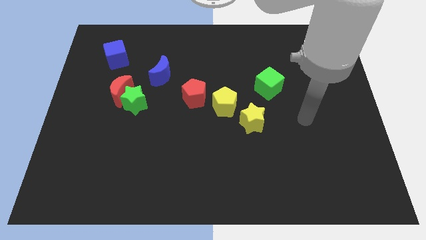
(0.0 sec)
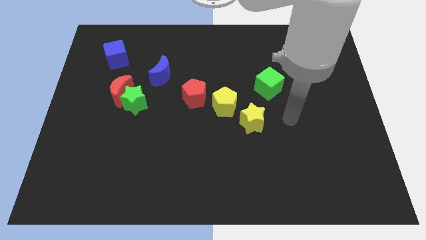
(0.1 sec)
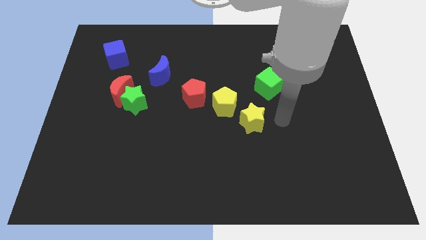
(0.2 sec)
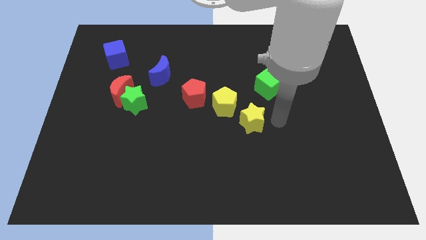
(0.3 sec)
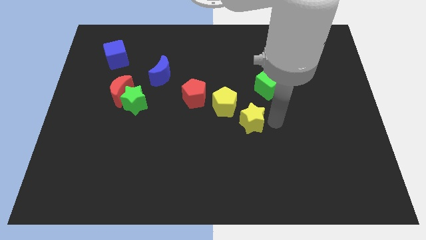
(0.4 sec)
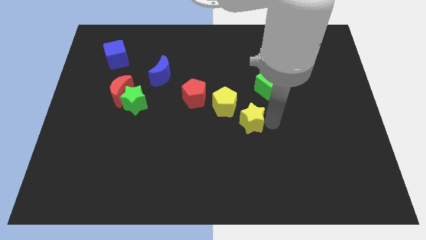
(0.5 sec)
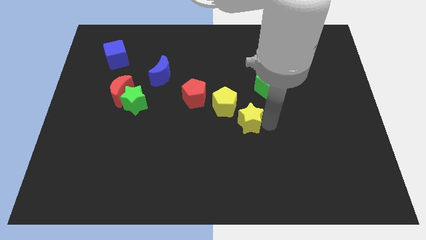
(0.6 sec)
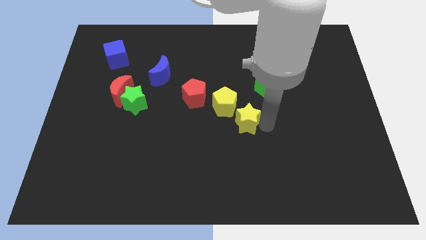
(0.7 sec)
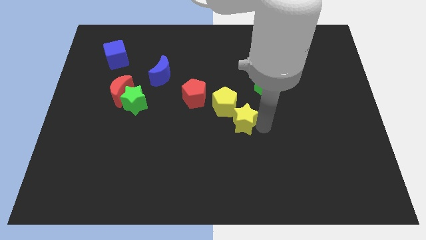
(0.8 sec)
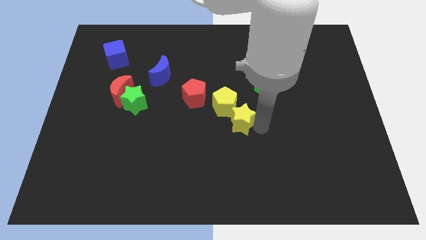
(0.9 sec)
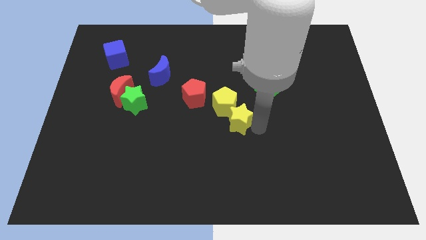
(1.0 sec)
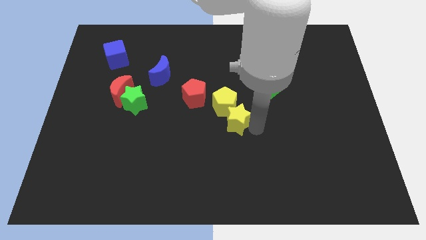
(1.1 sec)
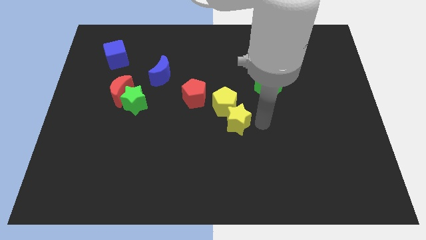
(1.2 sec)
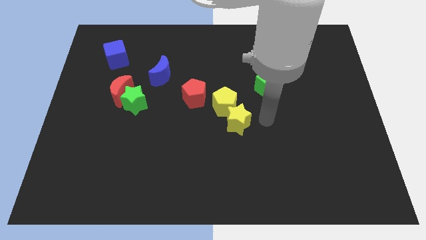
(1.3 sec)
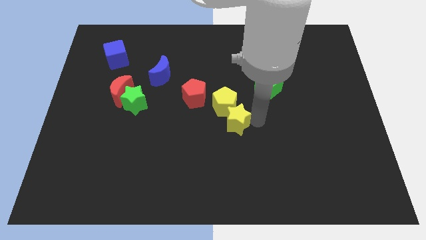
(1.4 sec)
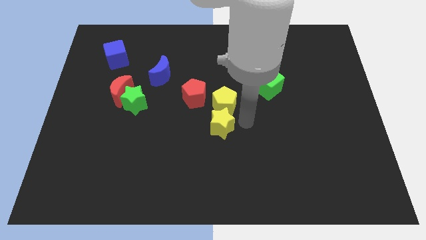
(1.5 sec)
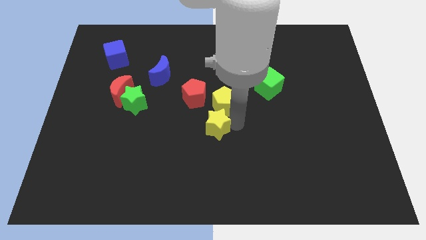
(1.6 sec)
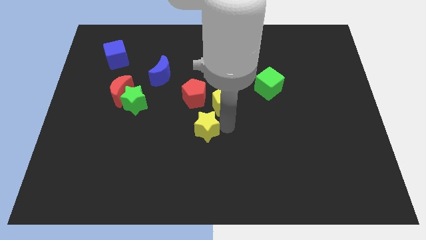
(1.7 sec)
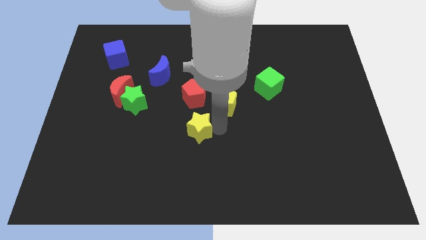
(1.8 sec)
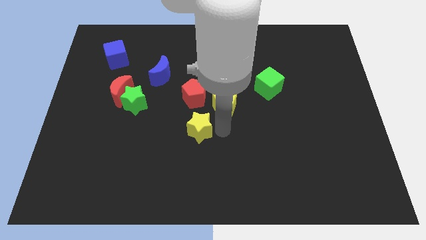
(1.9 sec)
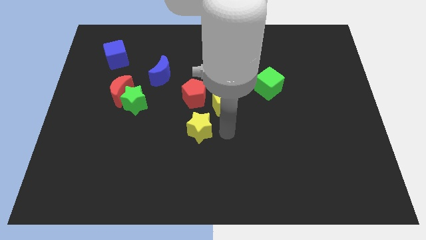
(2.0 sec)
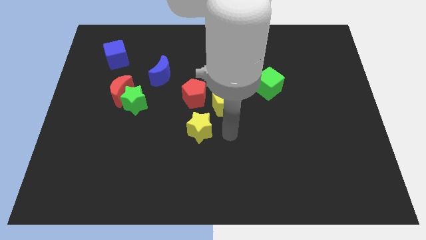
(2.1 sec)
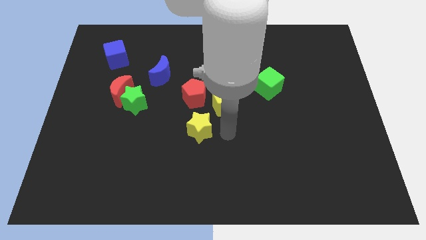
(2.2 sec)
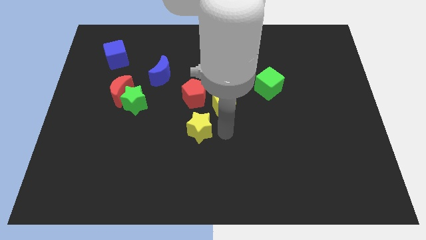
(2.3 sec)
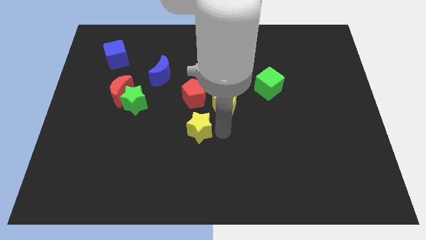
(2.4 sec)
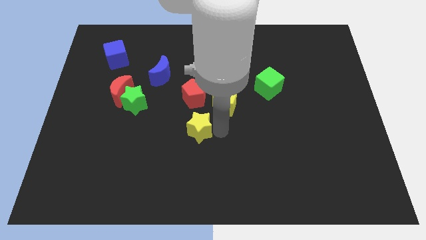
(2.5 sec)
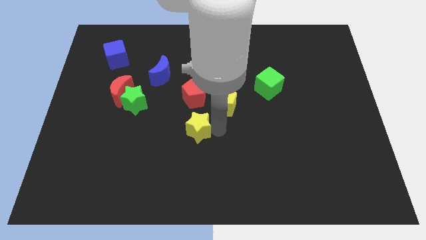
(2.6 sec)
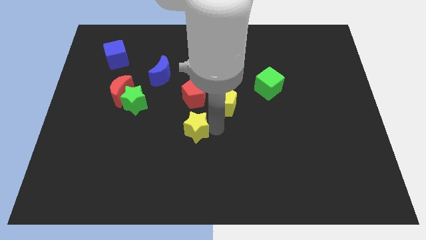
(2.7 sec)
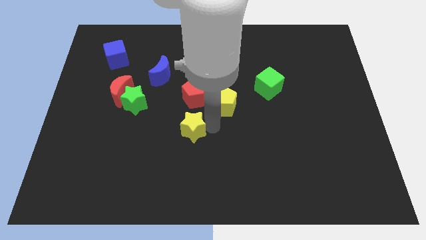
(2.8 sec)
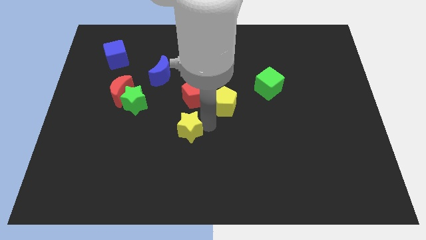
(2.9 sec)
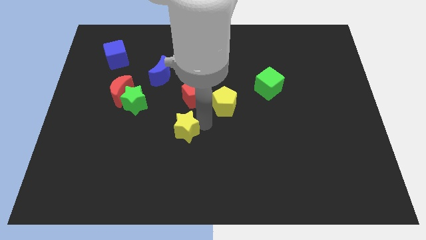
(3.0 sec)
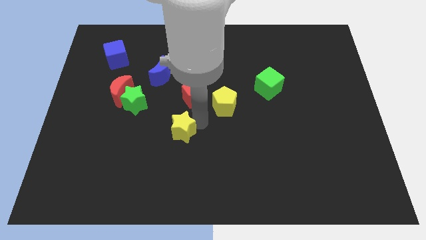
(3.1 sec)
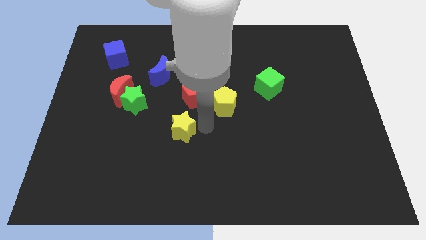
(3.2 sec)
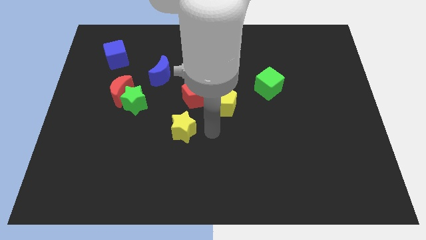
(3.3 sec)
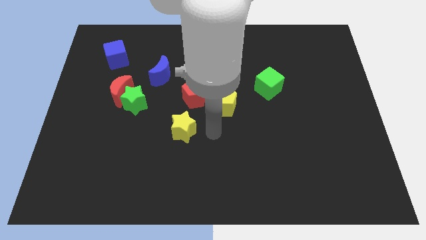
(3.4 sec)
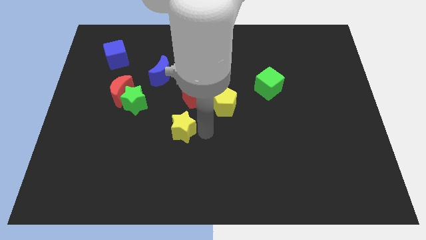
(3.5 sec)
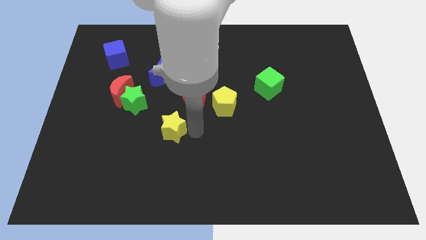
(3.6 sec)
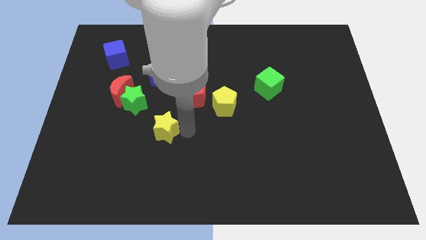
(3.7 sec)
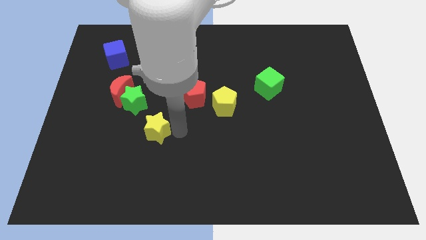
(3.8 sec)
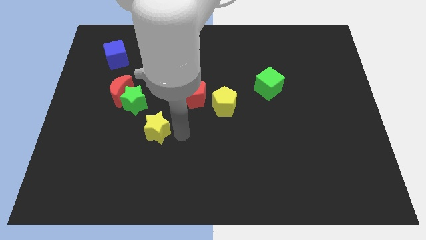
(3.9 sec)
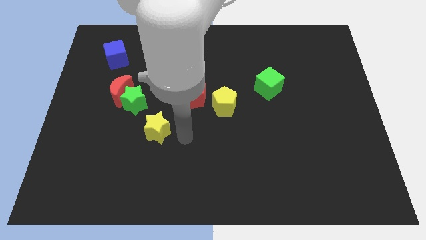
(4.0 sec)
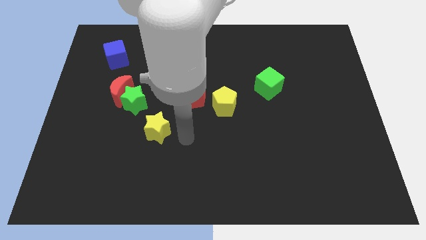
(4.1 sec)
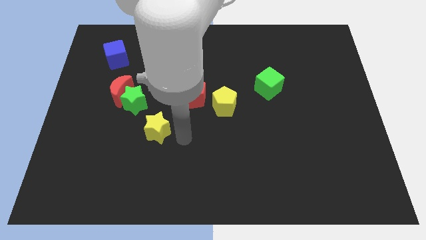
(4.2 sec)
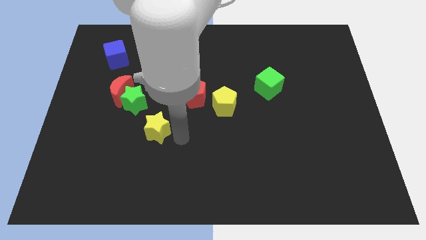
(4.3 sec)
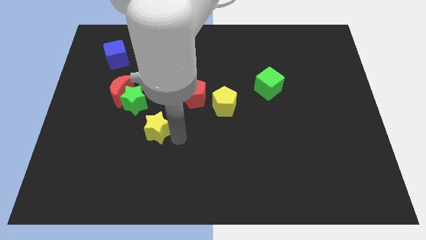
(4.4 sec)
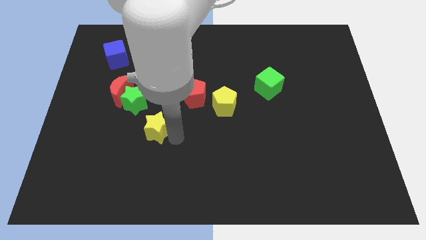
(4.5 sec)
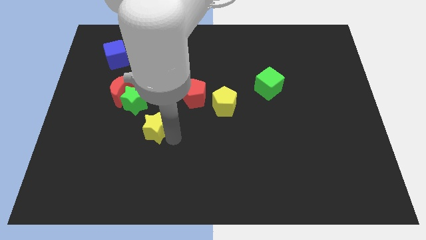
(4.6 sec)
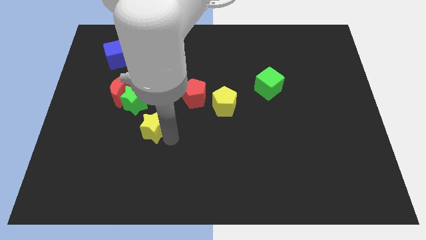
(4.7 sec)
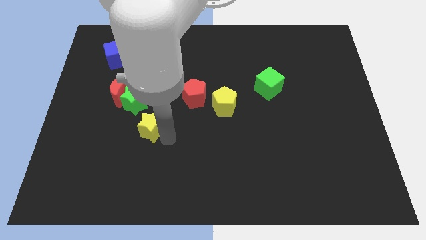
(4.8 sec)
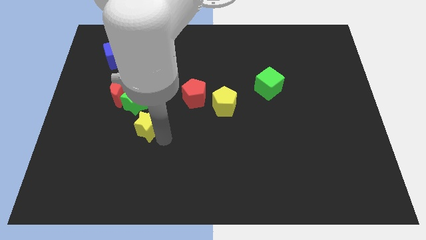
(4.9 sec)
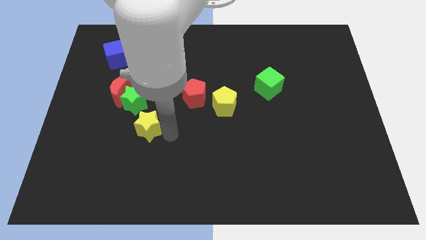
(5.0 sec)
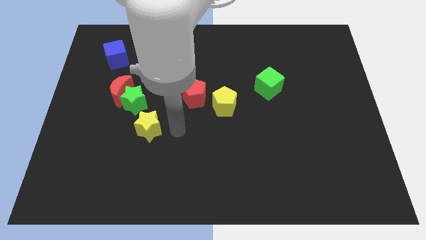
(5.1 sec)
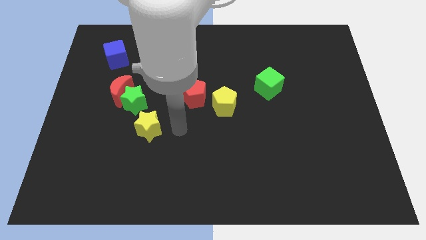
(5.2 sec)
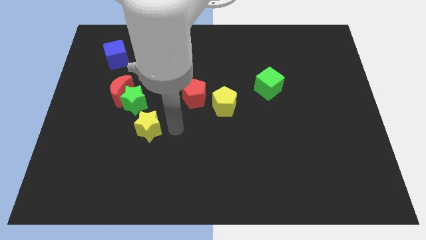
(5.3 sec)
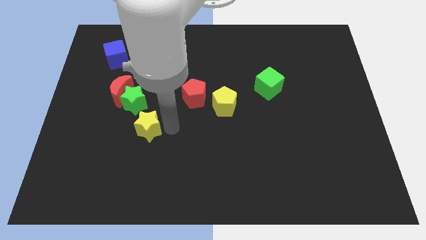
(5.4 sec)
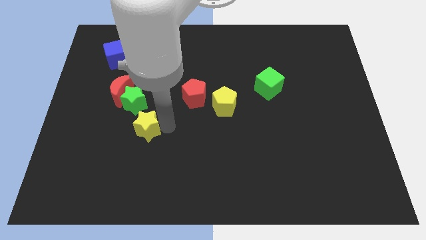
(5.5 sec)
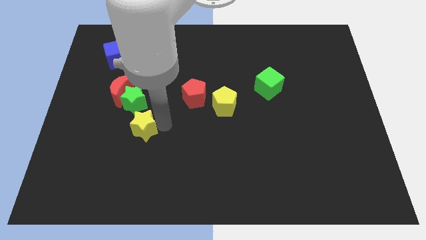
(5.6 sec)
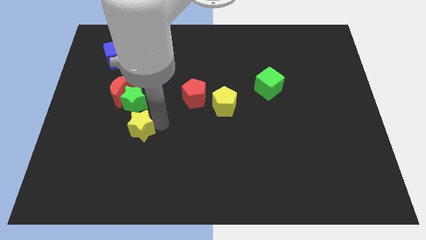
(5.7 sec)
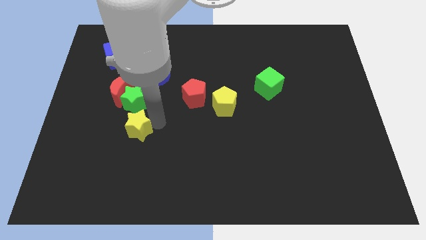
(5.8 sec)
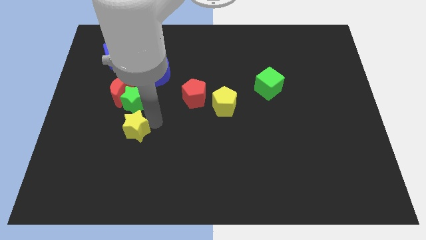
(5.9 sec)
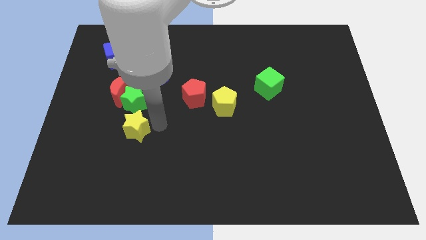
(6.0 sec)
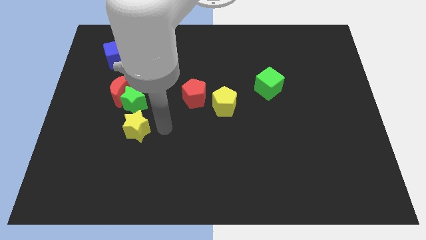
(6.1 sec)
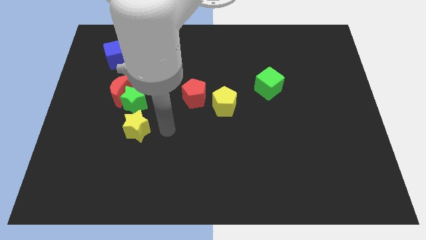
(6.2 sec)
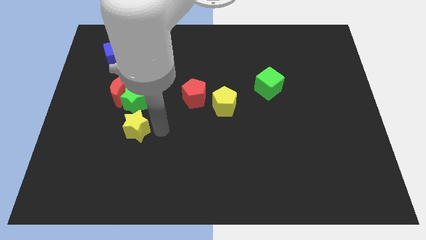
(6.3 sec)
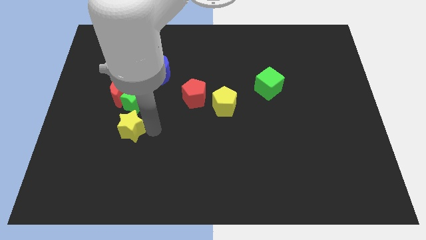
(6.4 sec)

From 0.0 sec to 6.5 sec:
move the yellow star below the red moon

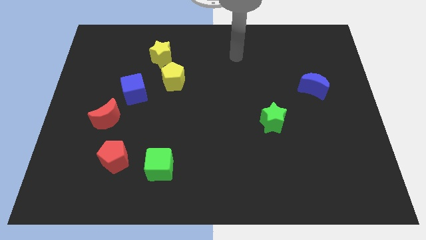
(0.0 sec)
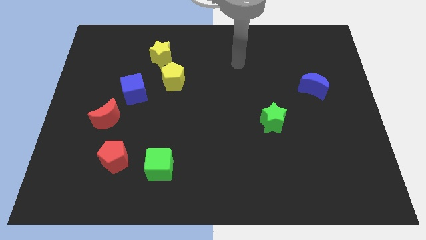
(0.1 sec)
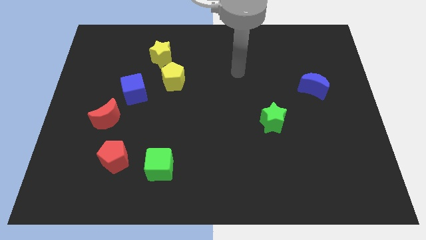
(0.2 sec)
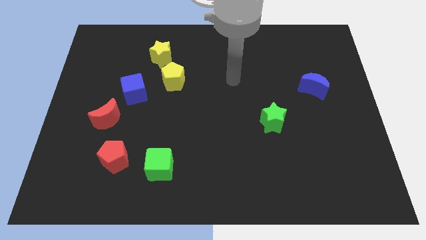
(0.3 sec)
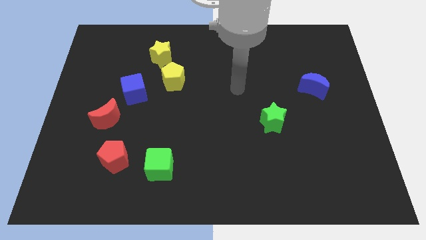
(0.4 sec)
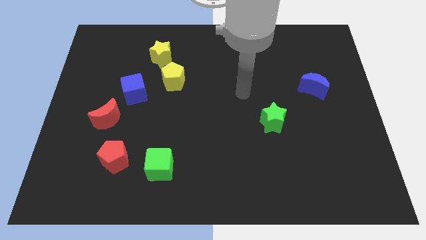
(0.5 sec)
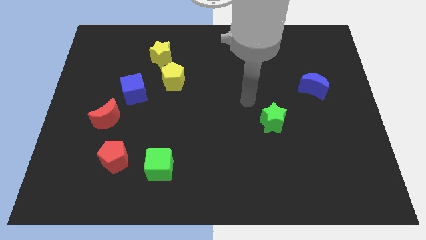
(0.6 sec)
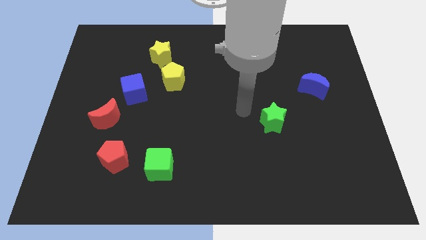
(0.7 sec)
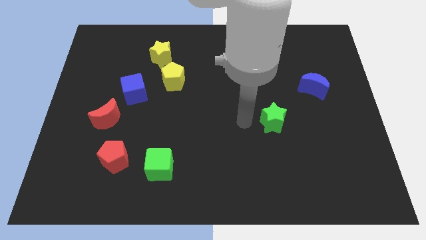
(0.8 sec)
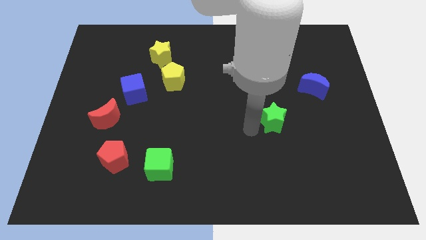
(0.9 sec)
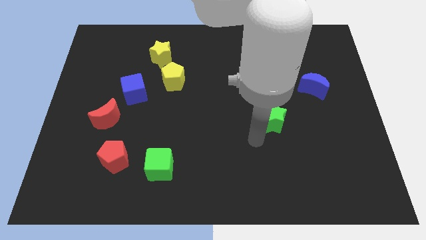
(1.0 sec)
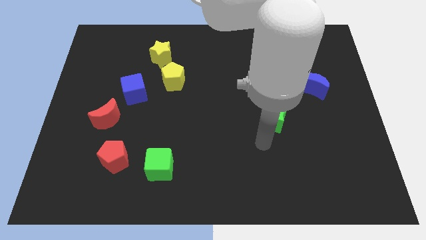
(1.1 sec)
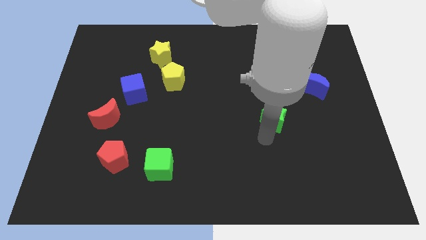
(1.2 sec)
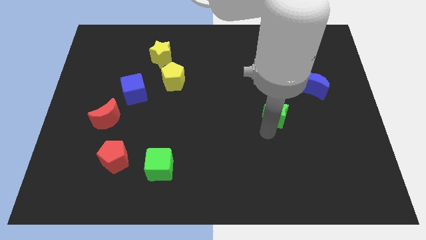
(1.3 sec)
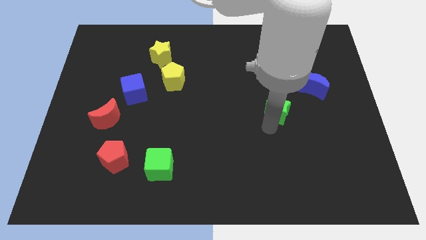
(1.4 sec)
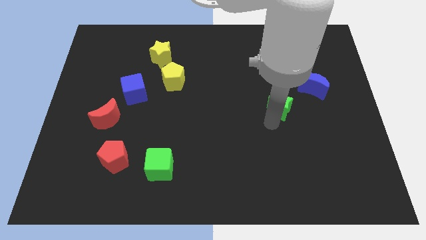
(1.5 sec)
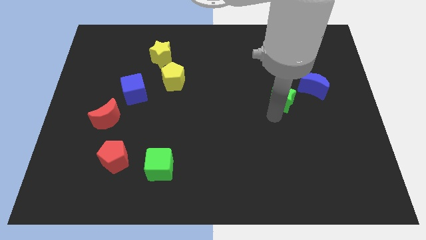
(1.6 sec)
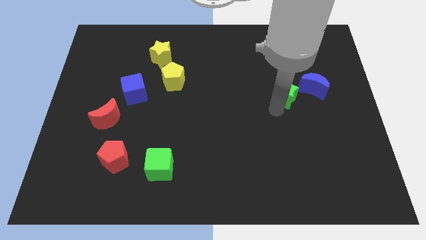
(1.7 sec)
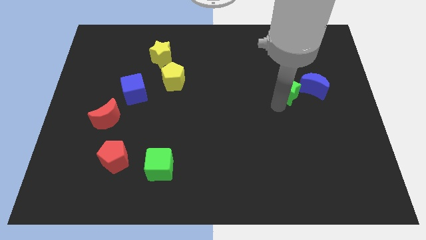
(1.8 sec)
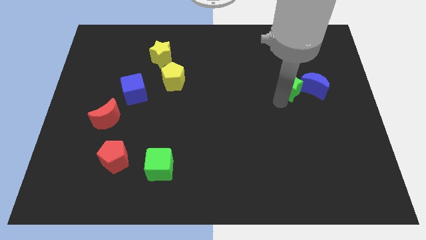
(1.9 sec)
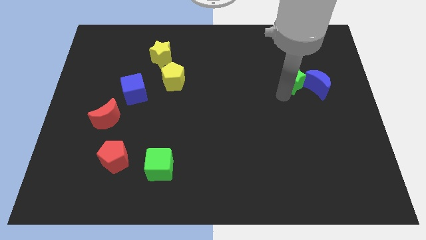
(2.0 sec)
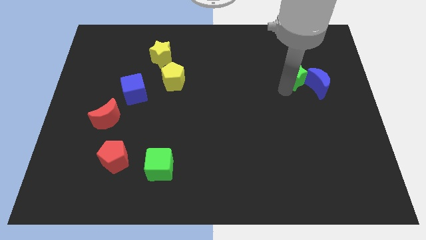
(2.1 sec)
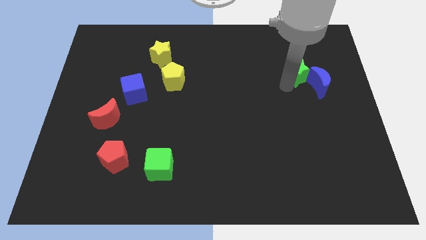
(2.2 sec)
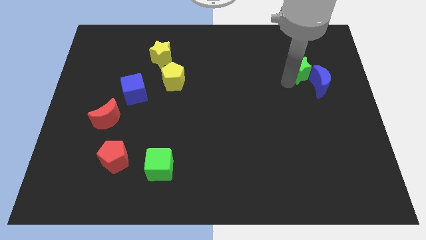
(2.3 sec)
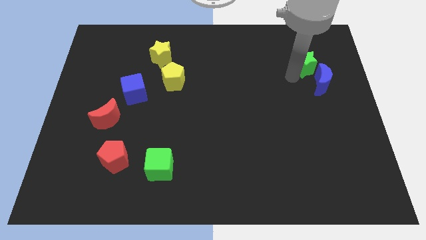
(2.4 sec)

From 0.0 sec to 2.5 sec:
push the green star above the blue moon
